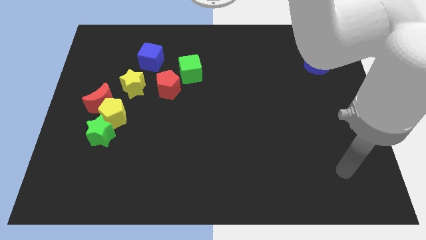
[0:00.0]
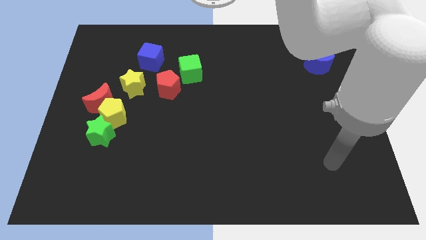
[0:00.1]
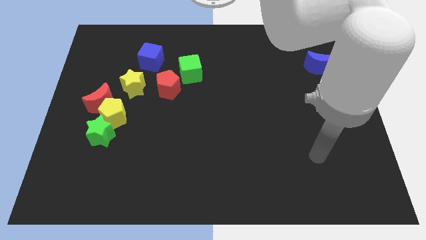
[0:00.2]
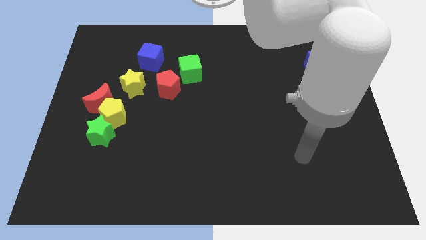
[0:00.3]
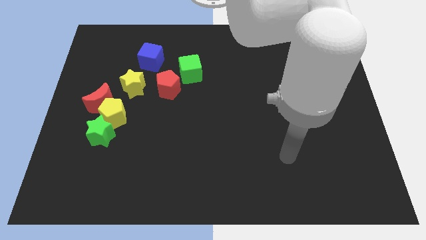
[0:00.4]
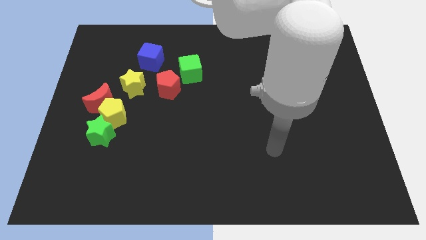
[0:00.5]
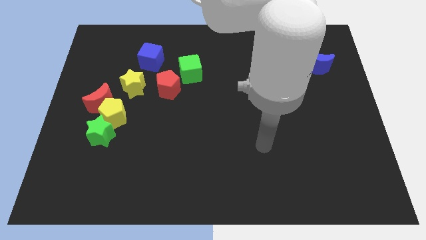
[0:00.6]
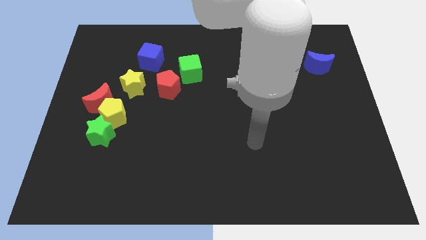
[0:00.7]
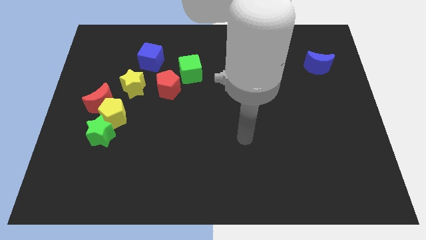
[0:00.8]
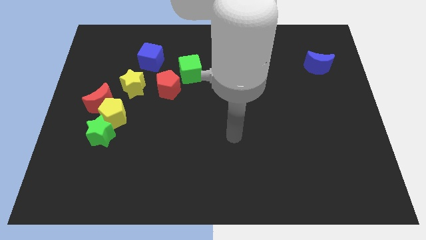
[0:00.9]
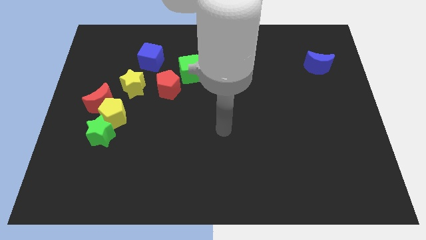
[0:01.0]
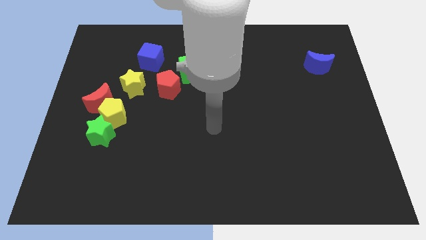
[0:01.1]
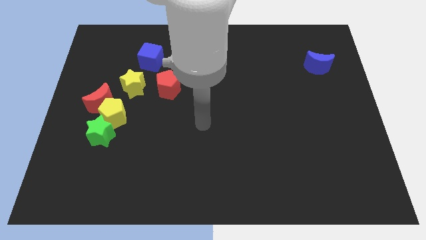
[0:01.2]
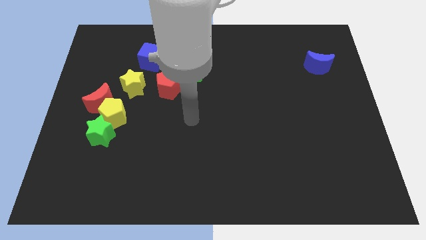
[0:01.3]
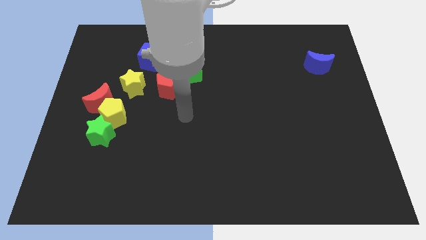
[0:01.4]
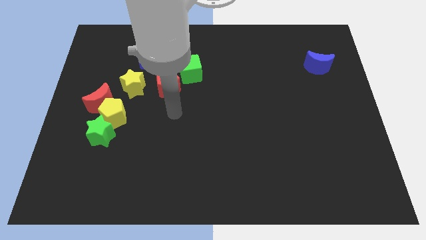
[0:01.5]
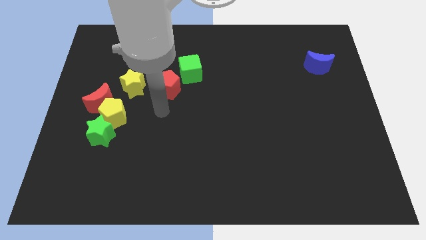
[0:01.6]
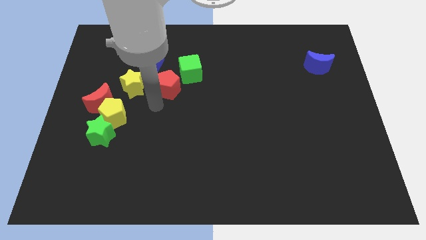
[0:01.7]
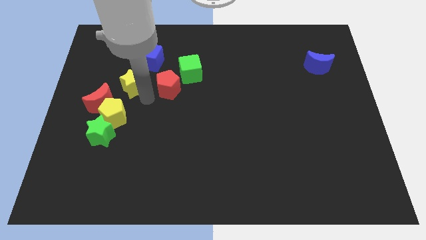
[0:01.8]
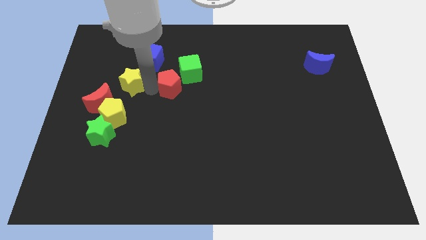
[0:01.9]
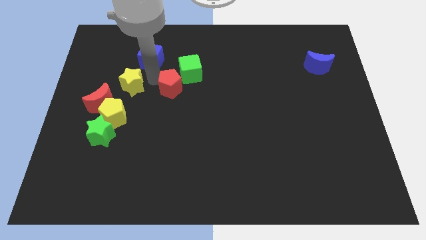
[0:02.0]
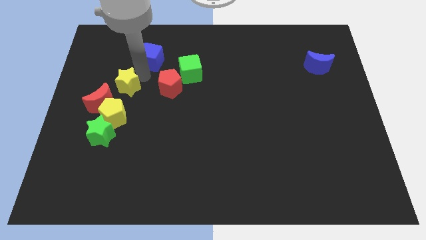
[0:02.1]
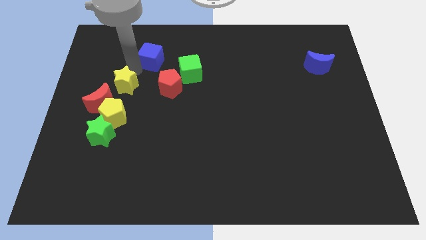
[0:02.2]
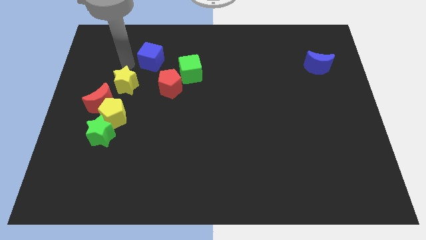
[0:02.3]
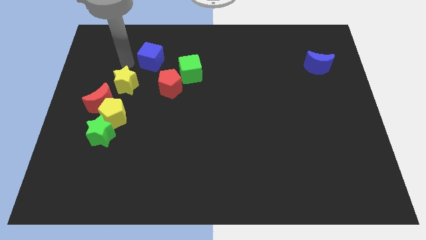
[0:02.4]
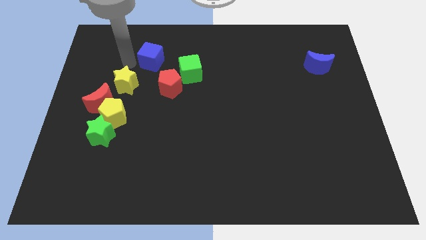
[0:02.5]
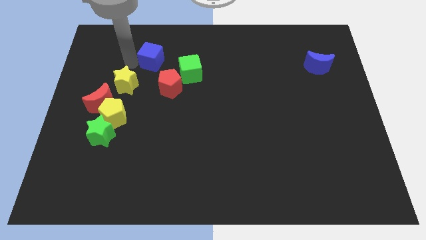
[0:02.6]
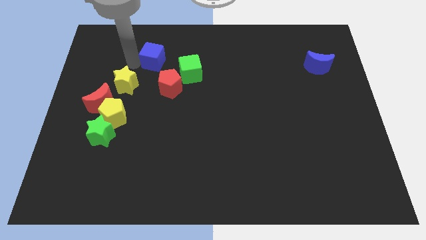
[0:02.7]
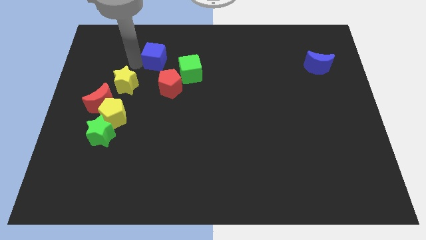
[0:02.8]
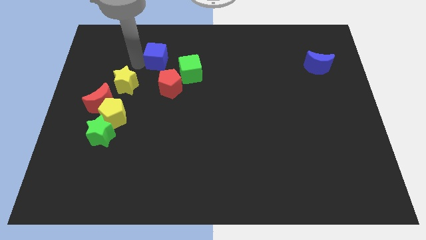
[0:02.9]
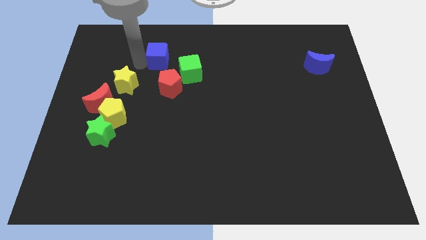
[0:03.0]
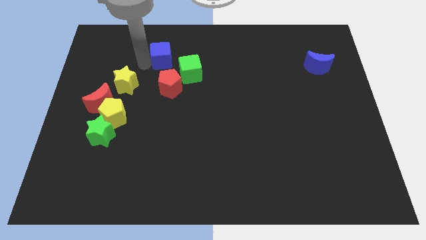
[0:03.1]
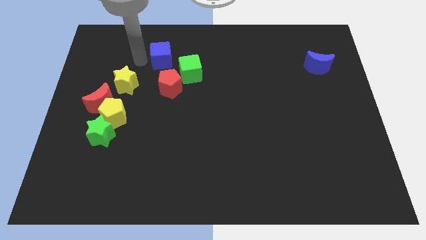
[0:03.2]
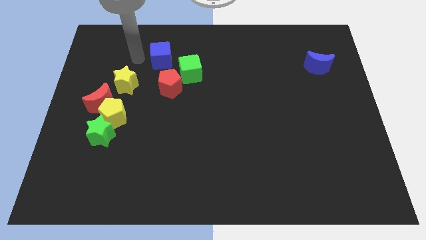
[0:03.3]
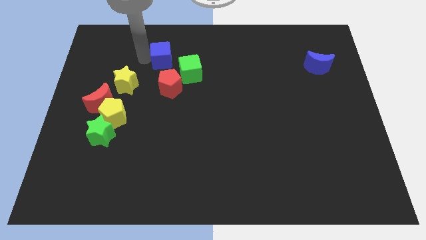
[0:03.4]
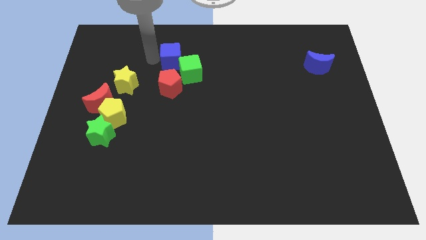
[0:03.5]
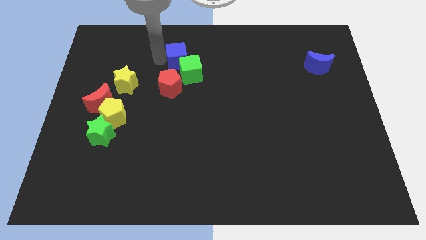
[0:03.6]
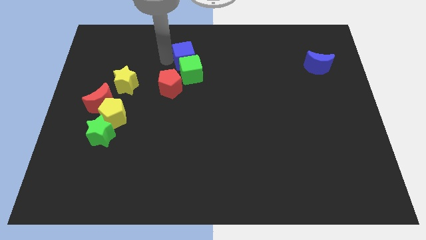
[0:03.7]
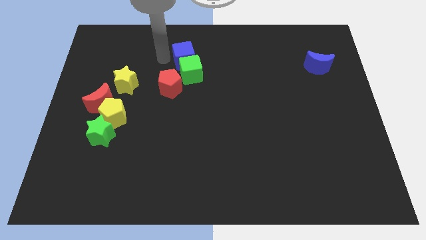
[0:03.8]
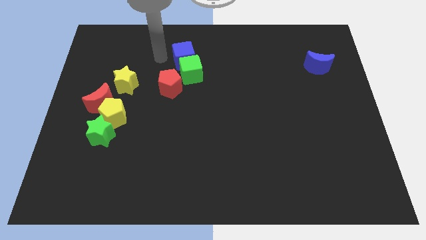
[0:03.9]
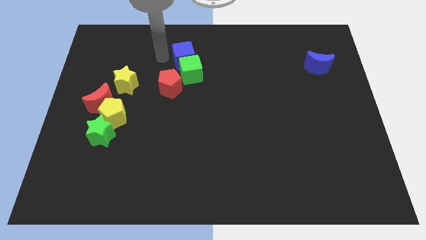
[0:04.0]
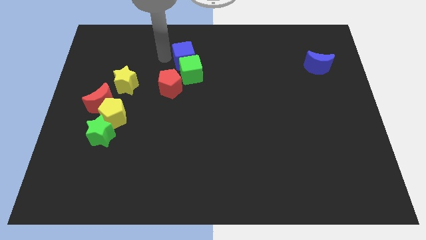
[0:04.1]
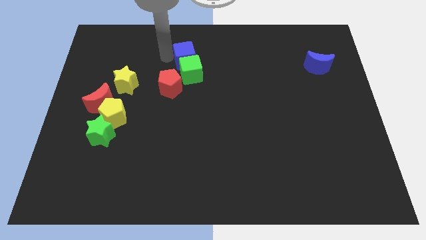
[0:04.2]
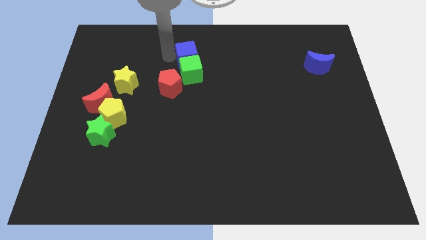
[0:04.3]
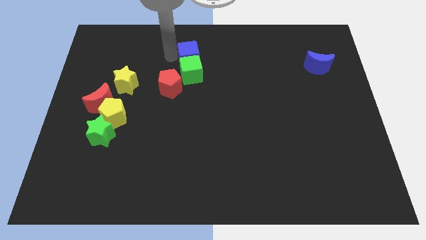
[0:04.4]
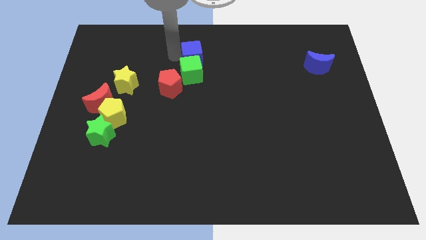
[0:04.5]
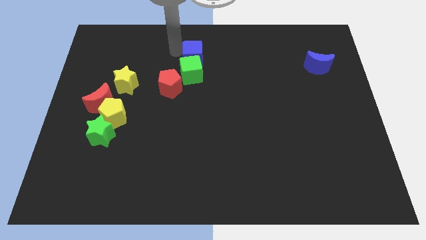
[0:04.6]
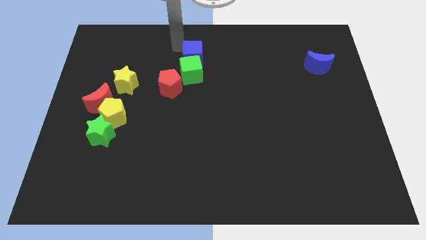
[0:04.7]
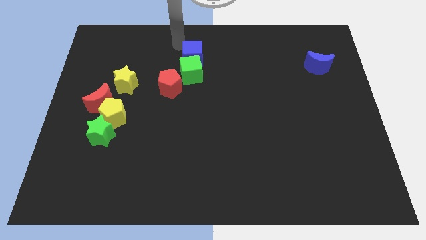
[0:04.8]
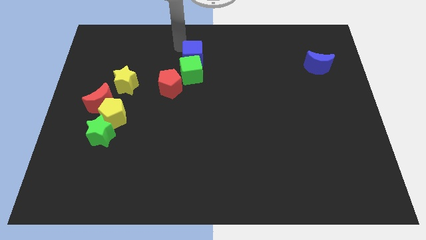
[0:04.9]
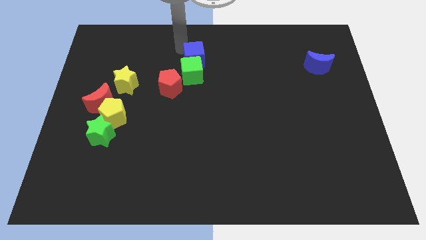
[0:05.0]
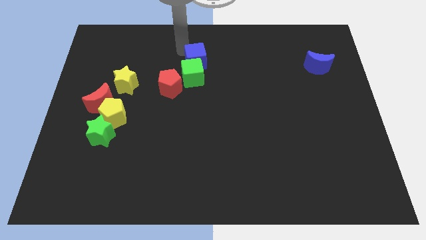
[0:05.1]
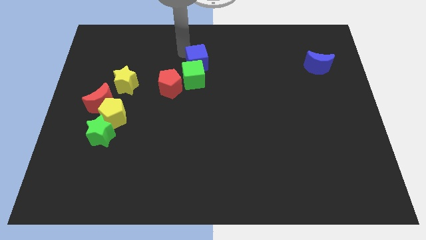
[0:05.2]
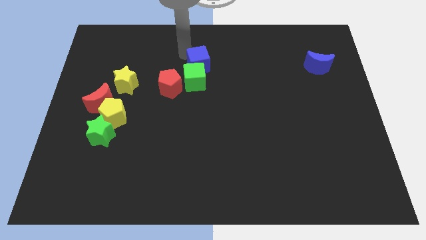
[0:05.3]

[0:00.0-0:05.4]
move the blue cube down and to the right diagonally somewhat

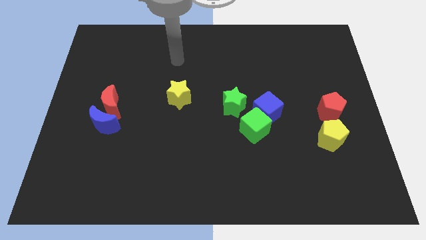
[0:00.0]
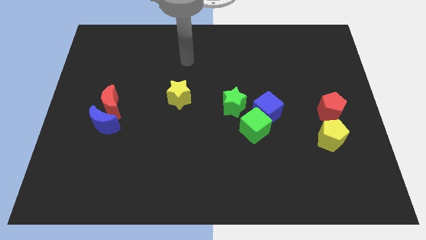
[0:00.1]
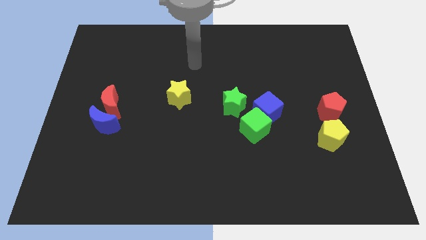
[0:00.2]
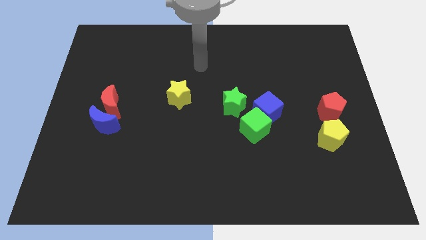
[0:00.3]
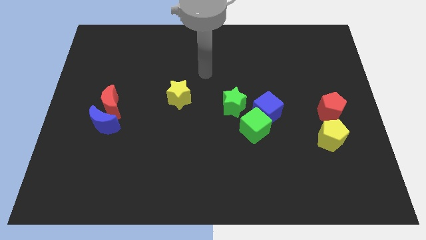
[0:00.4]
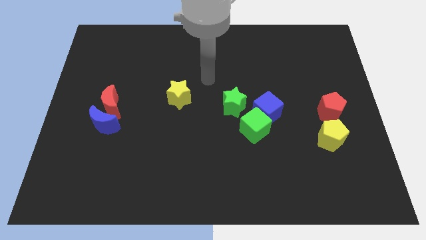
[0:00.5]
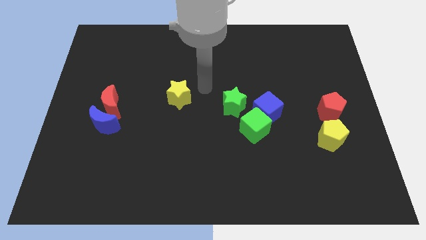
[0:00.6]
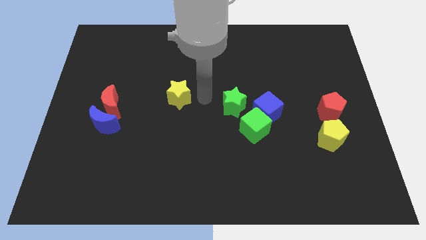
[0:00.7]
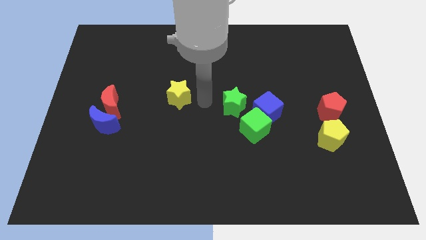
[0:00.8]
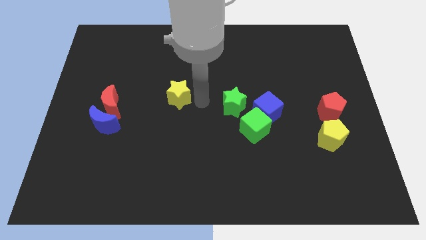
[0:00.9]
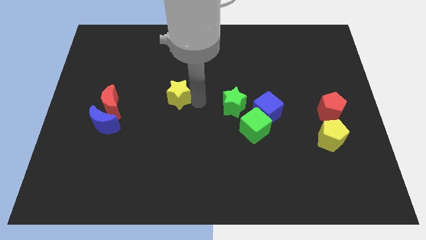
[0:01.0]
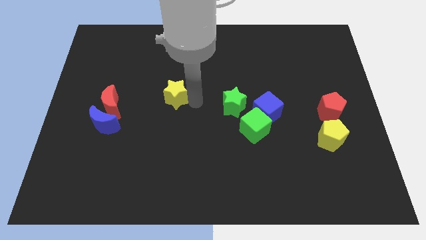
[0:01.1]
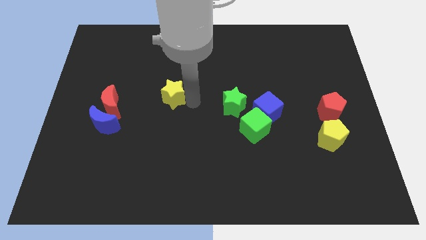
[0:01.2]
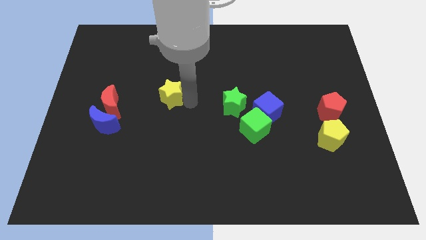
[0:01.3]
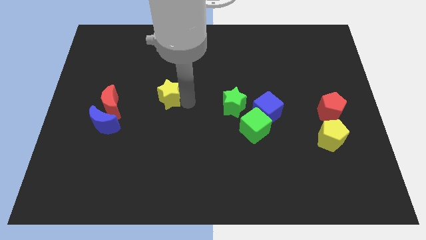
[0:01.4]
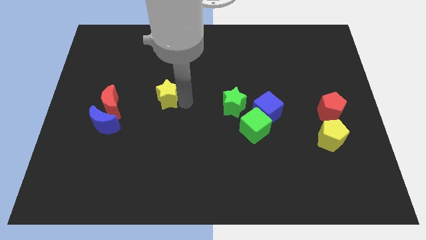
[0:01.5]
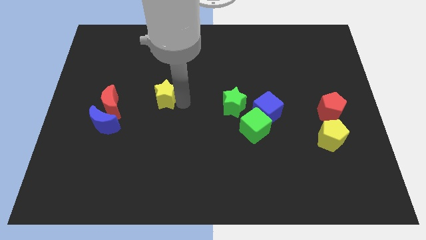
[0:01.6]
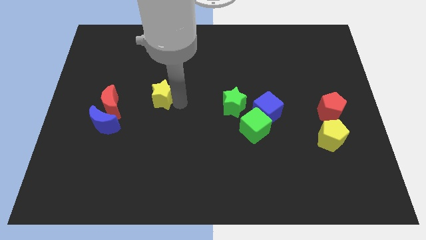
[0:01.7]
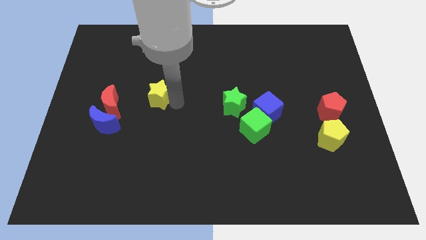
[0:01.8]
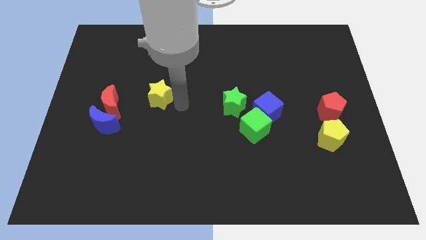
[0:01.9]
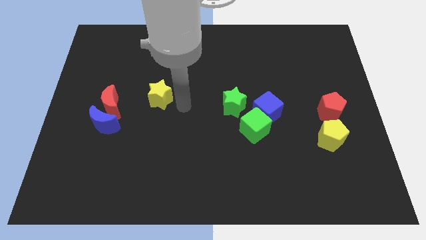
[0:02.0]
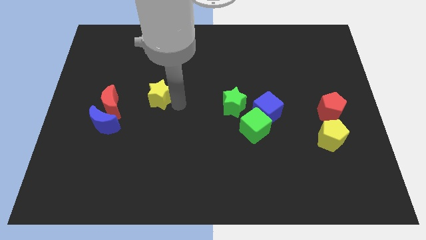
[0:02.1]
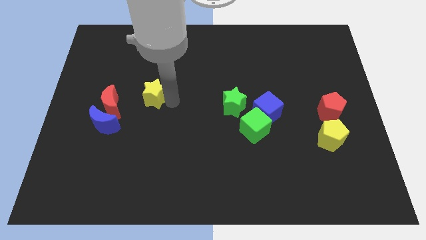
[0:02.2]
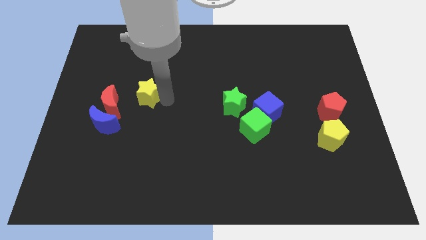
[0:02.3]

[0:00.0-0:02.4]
move the yellow star a little bit to the left

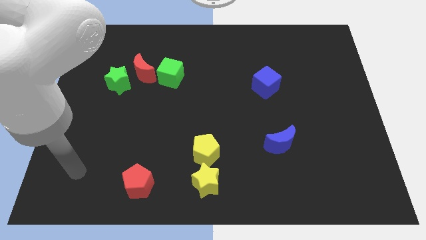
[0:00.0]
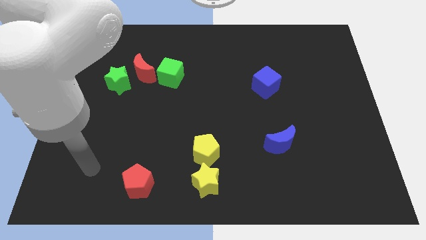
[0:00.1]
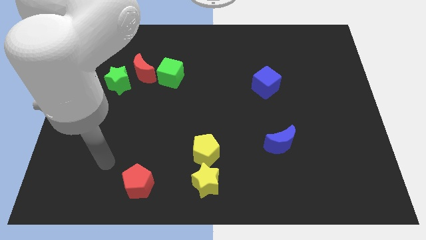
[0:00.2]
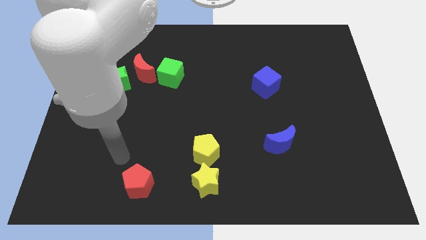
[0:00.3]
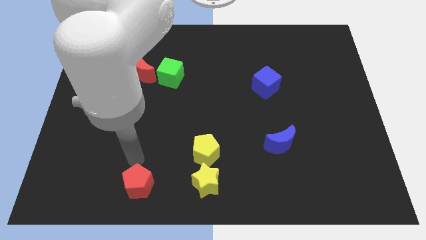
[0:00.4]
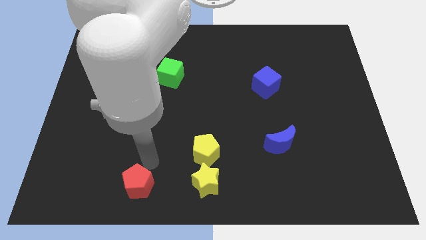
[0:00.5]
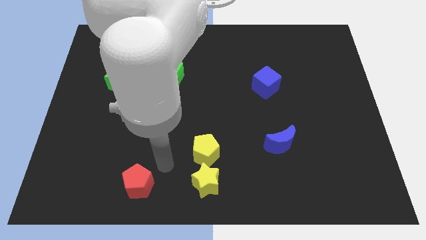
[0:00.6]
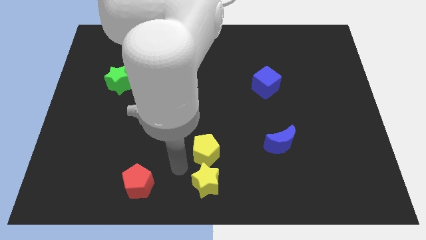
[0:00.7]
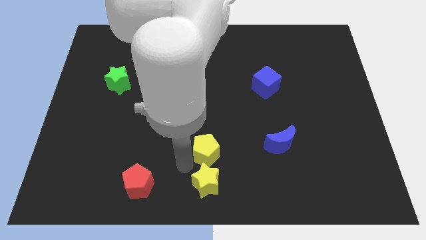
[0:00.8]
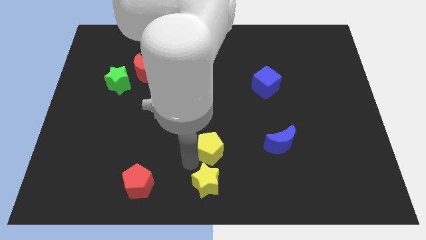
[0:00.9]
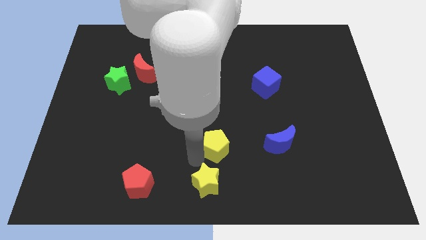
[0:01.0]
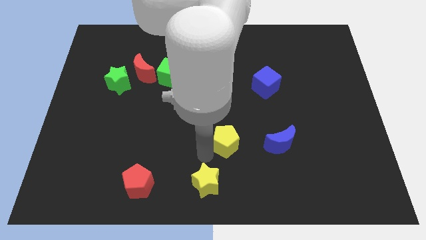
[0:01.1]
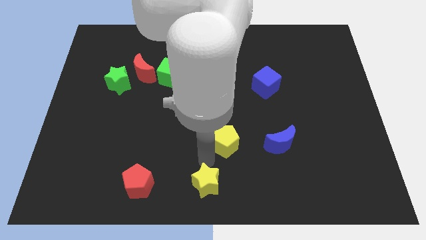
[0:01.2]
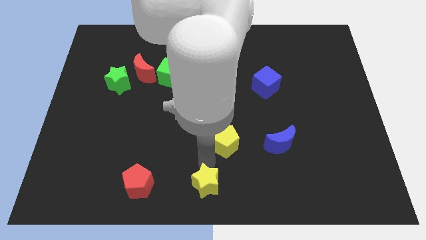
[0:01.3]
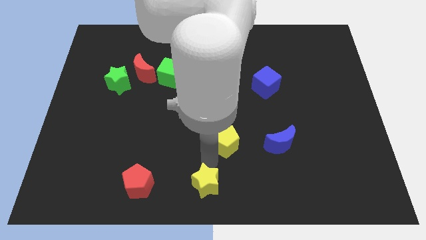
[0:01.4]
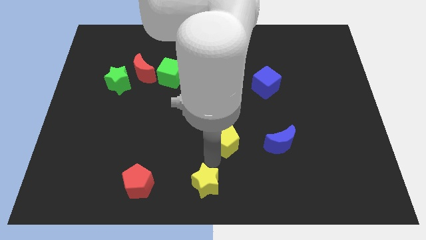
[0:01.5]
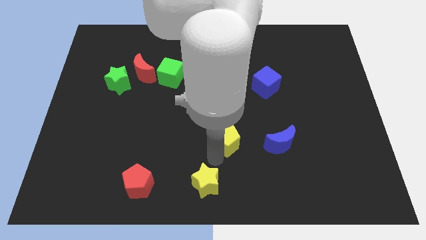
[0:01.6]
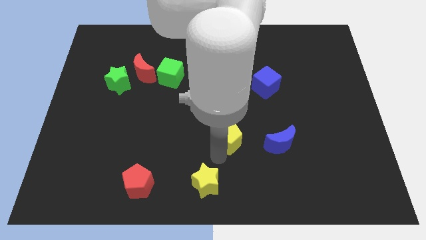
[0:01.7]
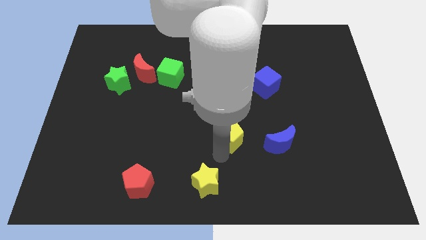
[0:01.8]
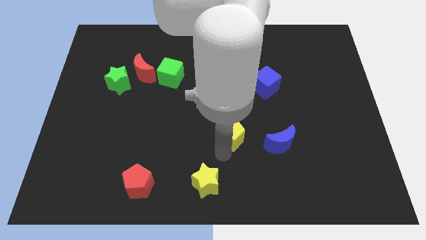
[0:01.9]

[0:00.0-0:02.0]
slide the yellow pentagon a little up and to the right
